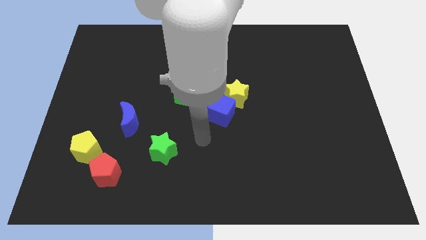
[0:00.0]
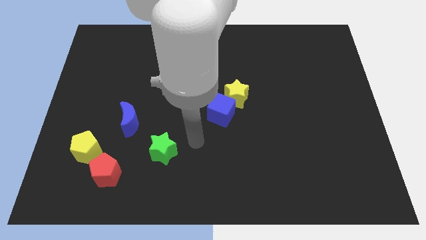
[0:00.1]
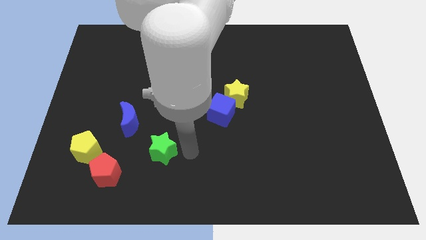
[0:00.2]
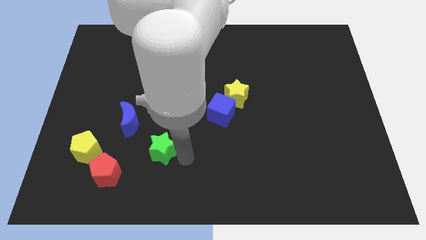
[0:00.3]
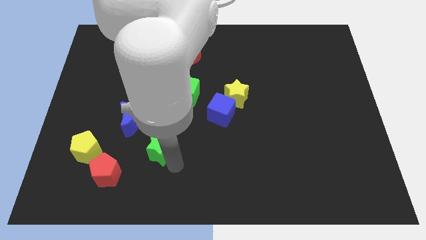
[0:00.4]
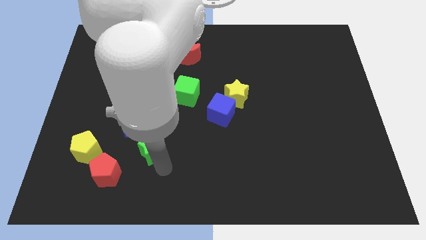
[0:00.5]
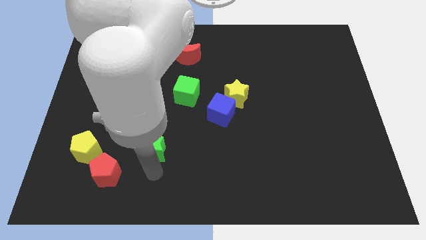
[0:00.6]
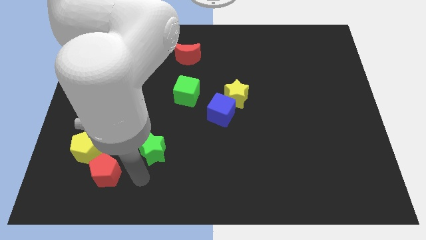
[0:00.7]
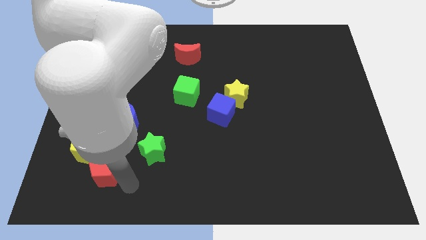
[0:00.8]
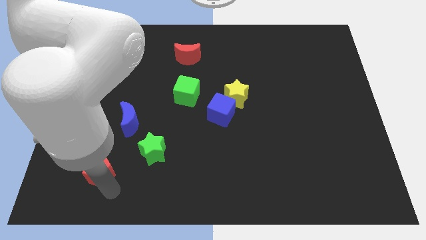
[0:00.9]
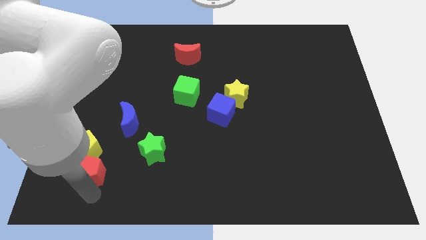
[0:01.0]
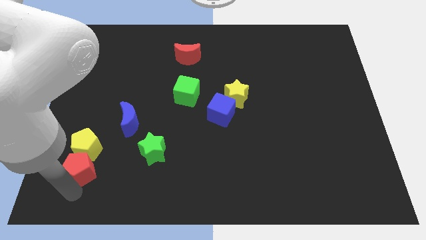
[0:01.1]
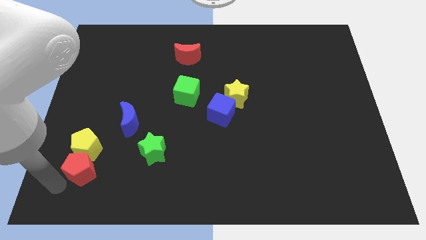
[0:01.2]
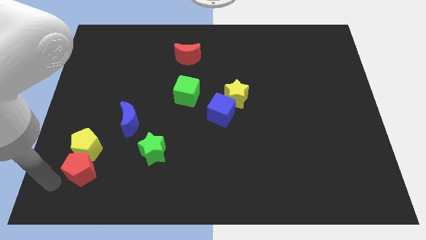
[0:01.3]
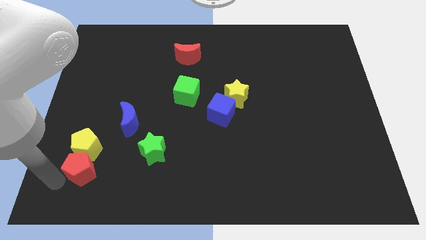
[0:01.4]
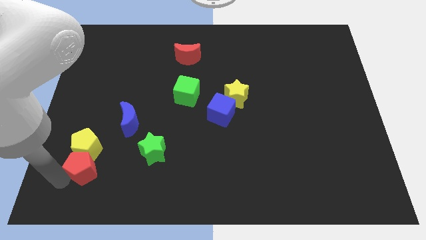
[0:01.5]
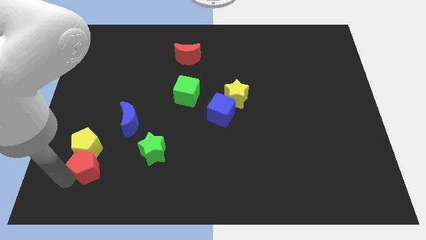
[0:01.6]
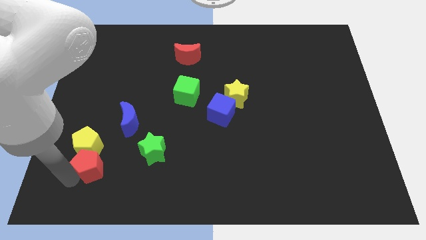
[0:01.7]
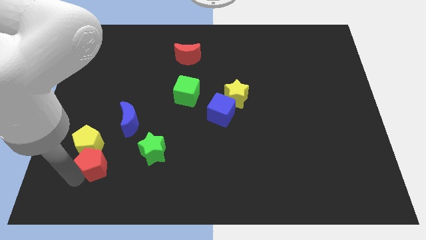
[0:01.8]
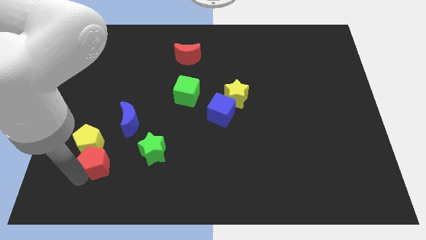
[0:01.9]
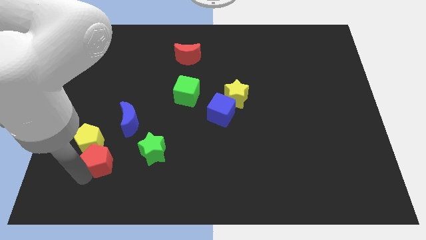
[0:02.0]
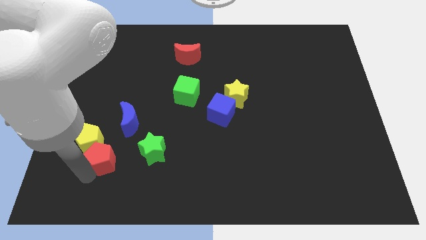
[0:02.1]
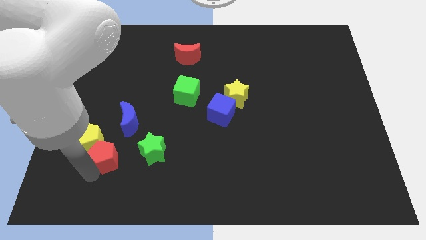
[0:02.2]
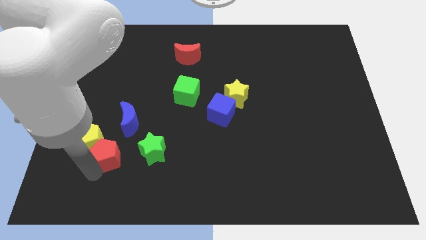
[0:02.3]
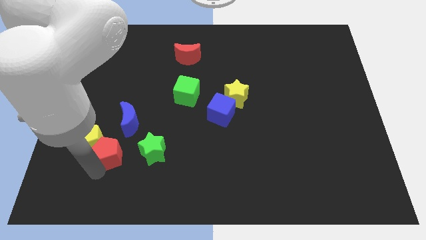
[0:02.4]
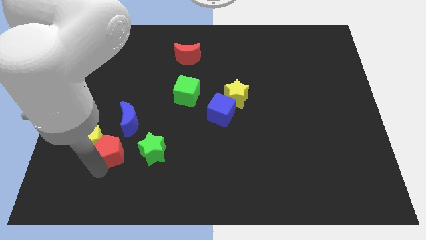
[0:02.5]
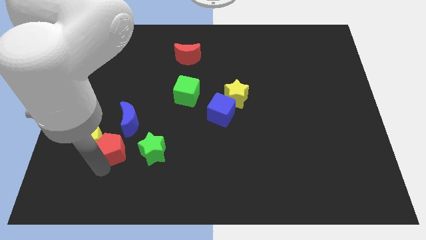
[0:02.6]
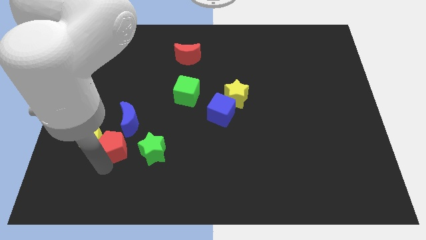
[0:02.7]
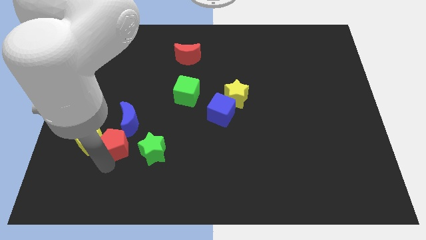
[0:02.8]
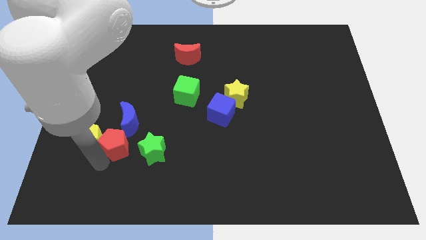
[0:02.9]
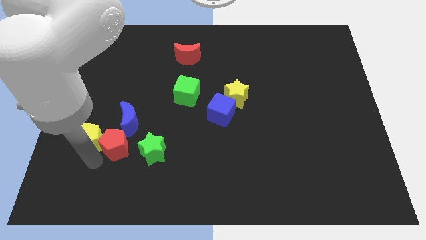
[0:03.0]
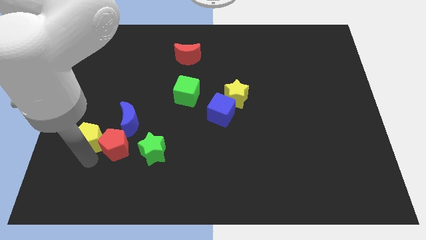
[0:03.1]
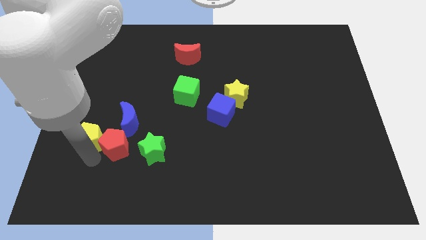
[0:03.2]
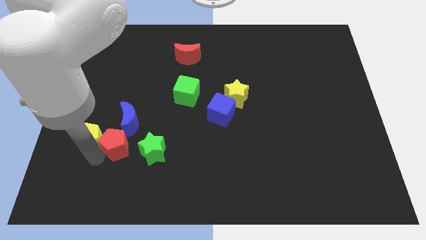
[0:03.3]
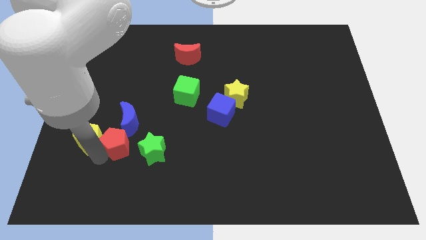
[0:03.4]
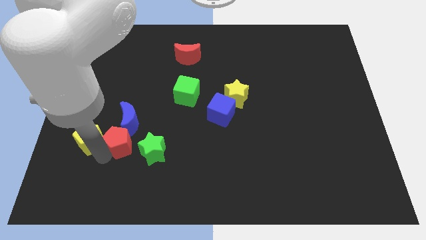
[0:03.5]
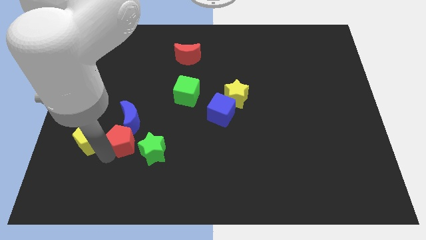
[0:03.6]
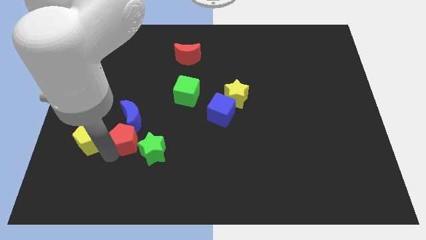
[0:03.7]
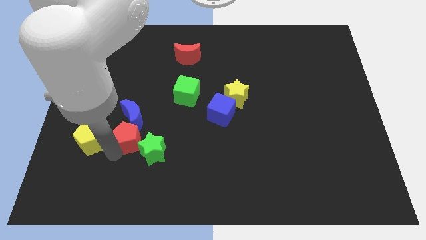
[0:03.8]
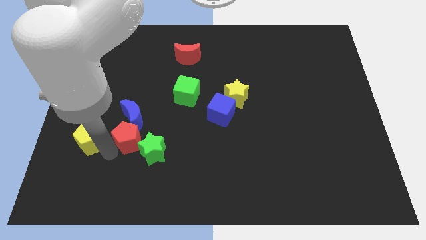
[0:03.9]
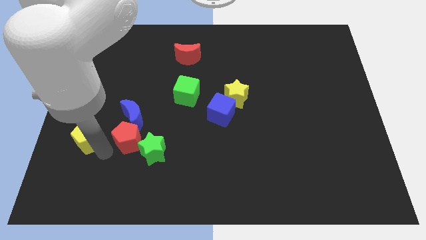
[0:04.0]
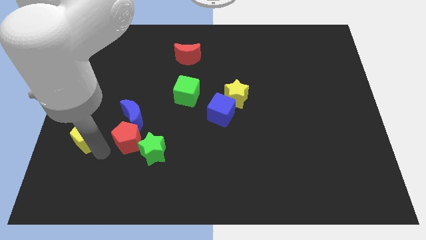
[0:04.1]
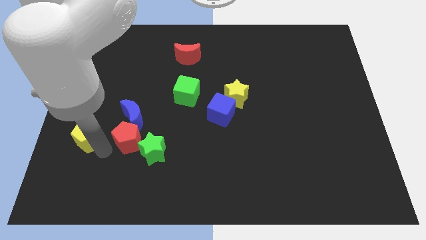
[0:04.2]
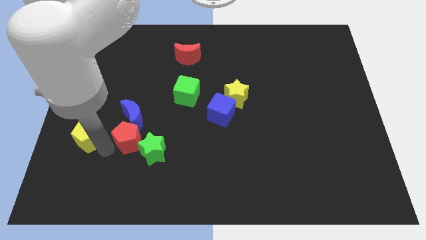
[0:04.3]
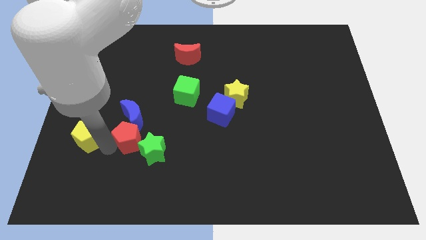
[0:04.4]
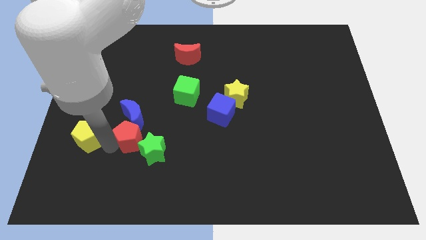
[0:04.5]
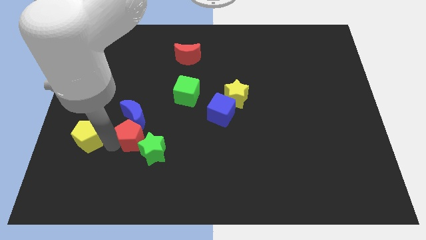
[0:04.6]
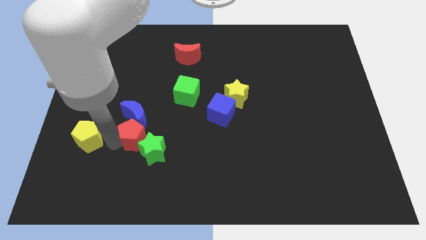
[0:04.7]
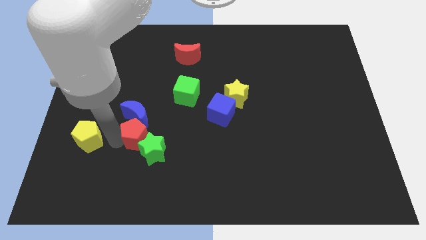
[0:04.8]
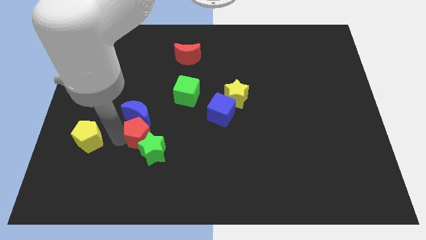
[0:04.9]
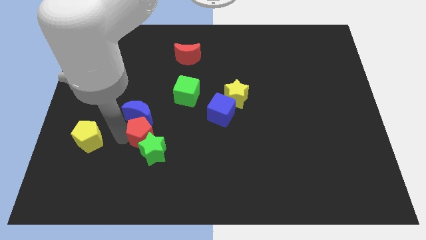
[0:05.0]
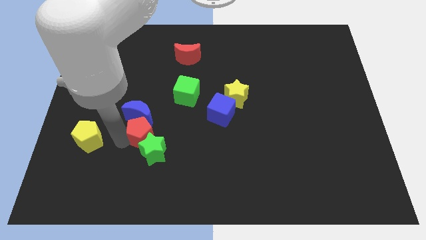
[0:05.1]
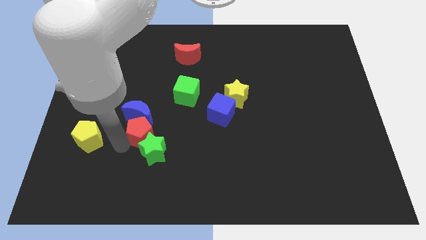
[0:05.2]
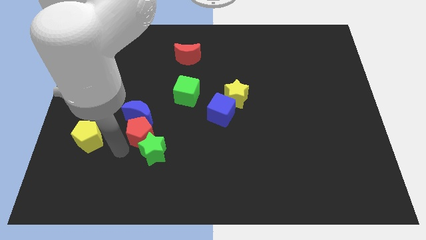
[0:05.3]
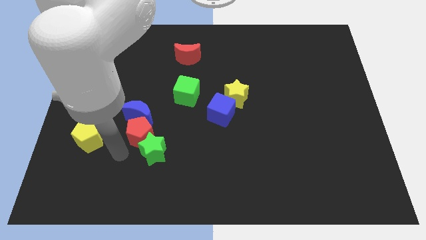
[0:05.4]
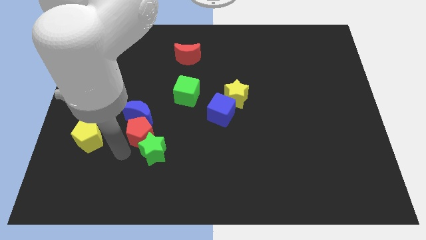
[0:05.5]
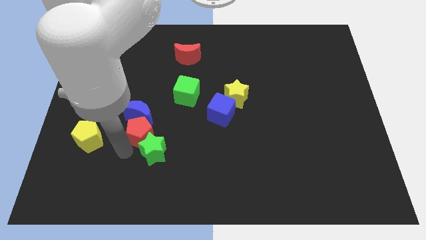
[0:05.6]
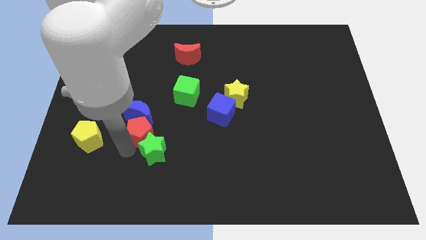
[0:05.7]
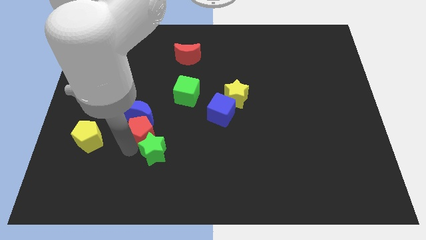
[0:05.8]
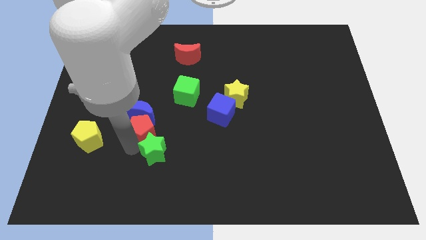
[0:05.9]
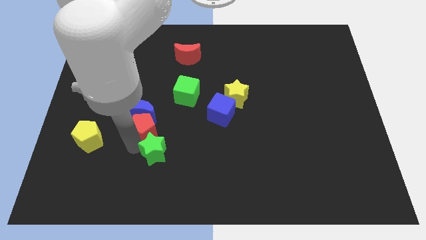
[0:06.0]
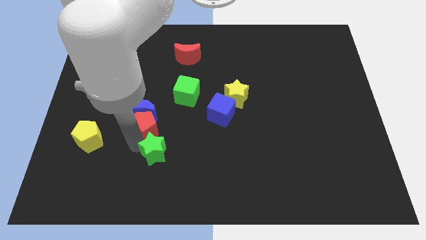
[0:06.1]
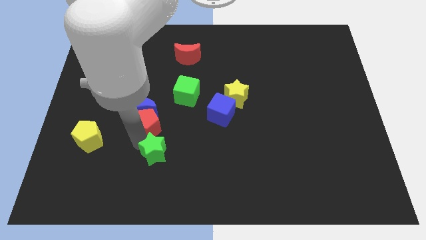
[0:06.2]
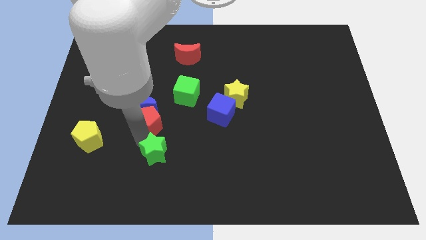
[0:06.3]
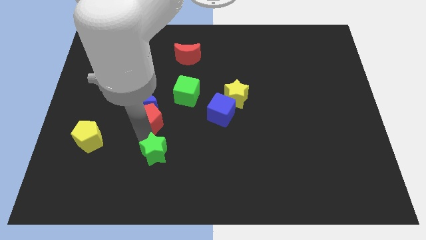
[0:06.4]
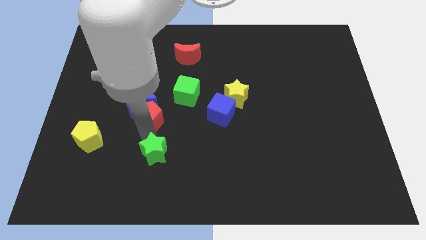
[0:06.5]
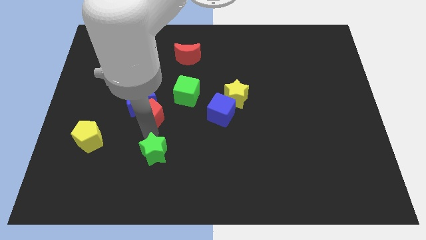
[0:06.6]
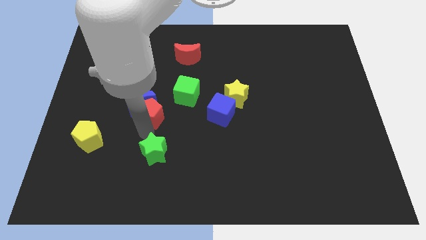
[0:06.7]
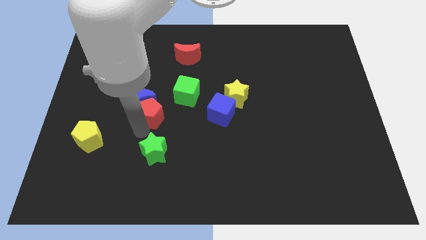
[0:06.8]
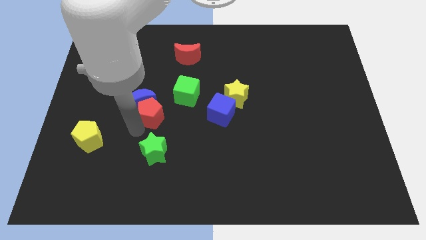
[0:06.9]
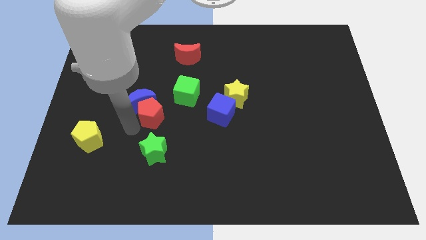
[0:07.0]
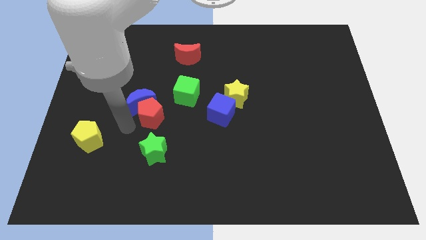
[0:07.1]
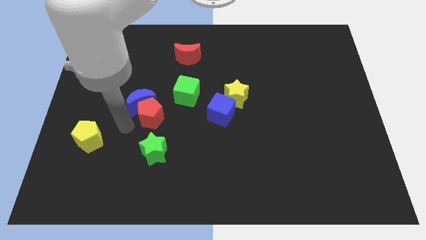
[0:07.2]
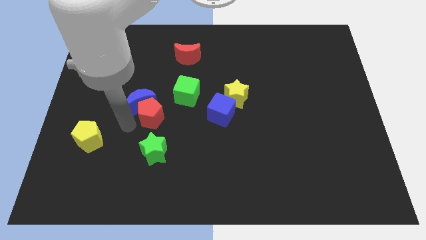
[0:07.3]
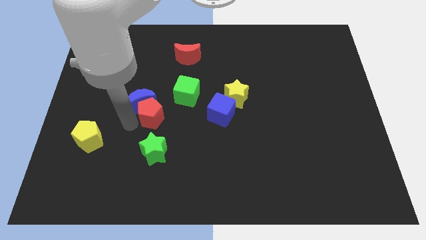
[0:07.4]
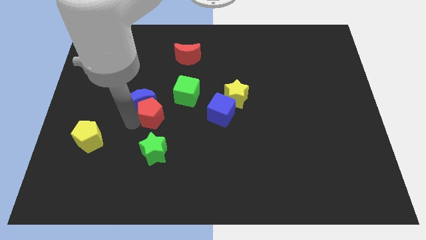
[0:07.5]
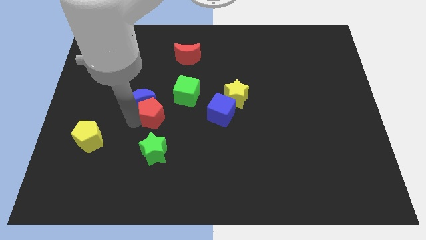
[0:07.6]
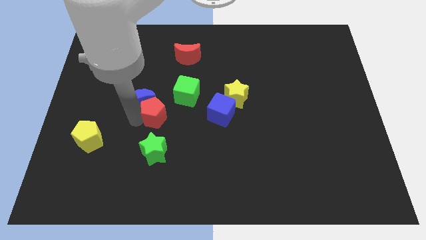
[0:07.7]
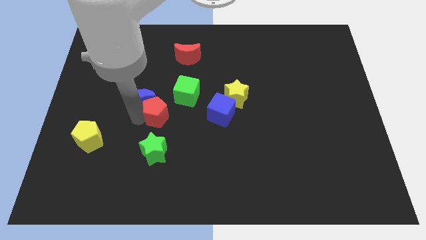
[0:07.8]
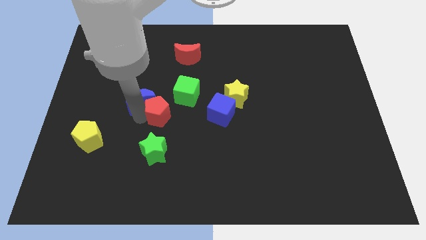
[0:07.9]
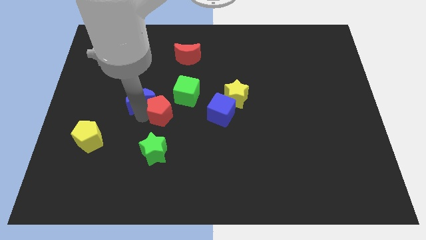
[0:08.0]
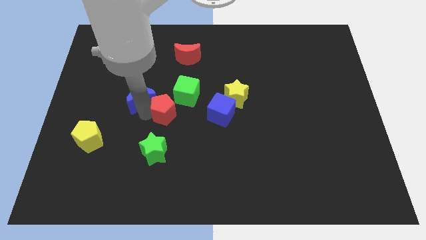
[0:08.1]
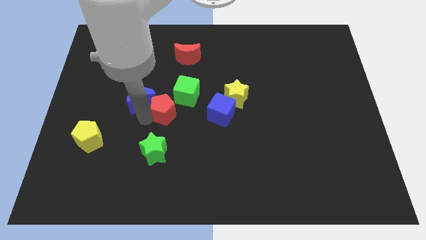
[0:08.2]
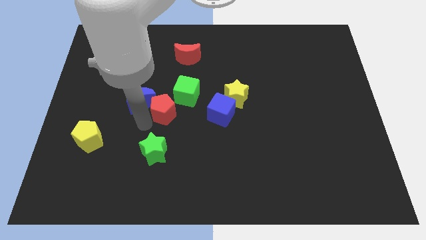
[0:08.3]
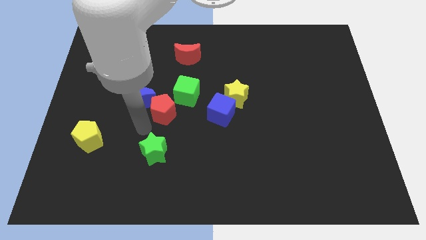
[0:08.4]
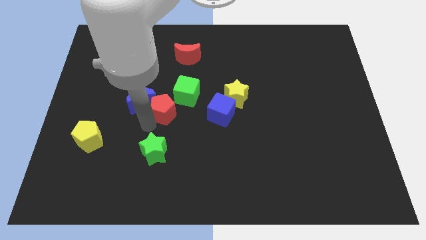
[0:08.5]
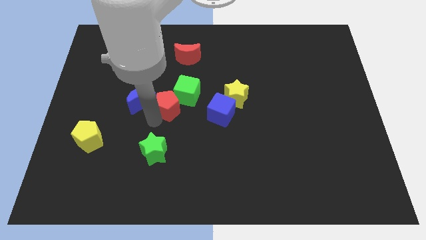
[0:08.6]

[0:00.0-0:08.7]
move the red pentagon towards the green cube
